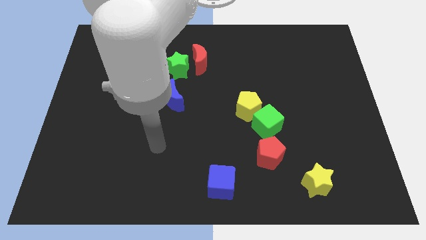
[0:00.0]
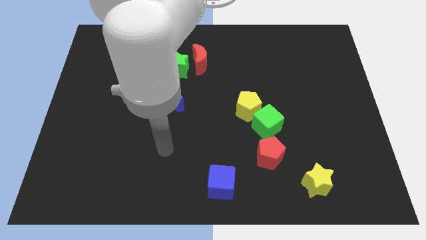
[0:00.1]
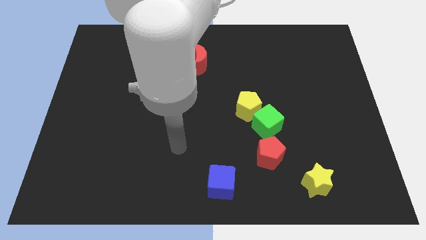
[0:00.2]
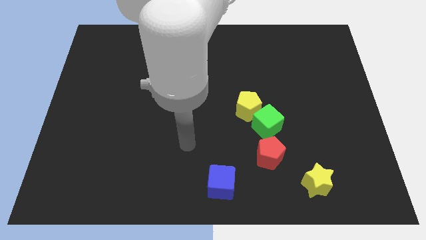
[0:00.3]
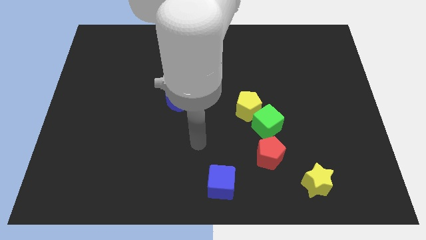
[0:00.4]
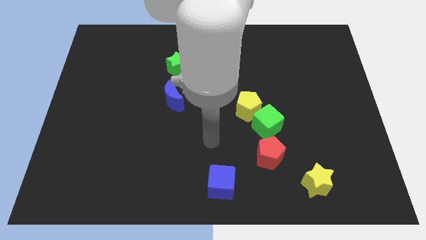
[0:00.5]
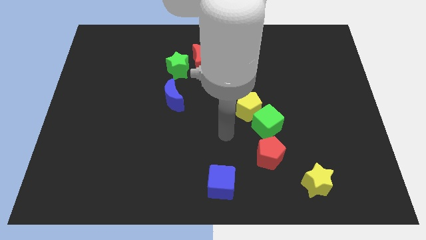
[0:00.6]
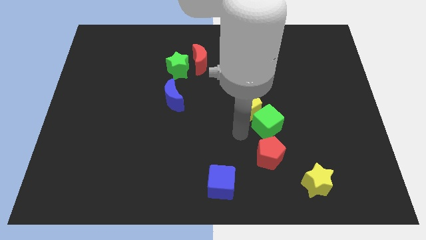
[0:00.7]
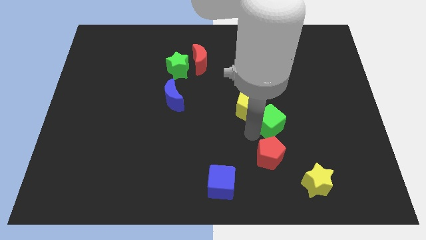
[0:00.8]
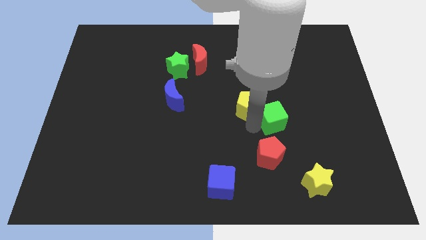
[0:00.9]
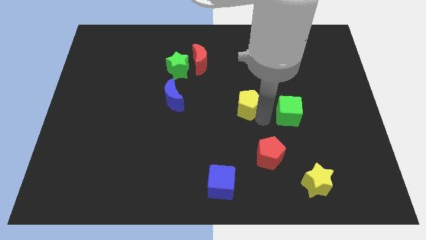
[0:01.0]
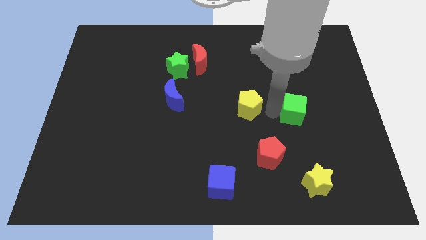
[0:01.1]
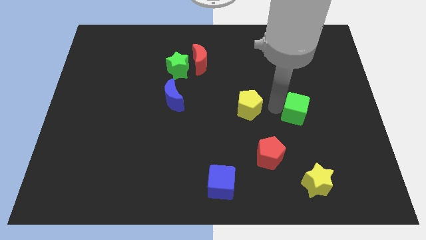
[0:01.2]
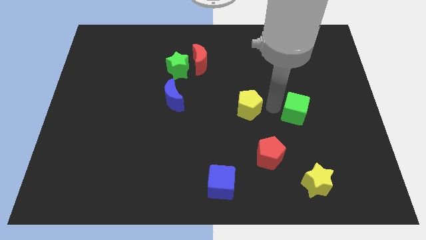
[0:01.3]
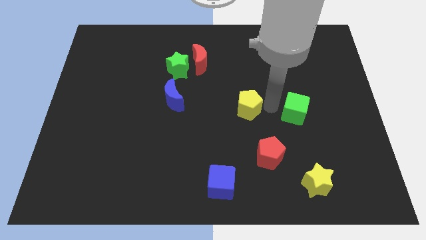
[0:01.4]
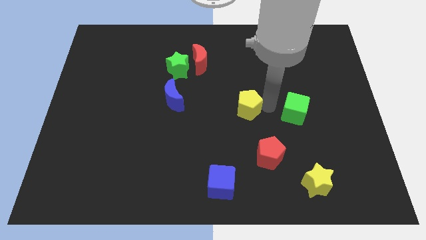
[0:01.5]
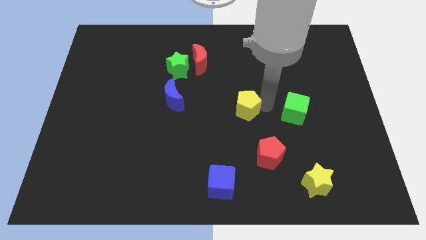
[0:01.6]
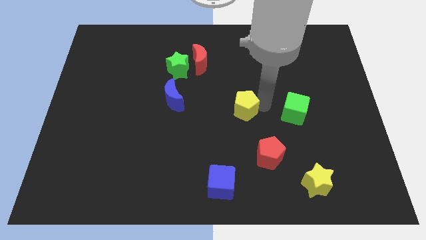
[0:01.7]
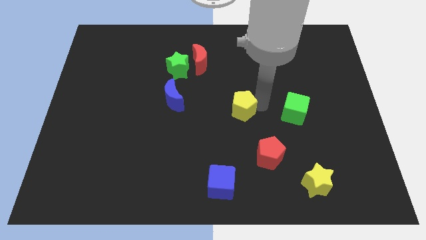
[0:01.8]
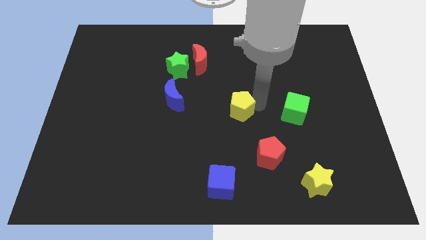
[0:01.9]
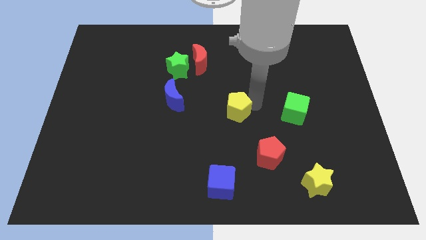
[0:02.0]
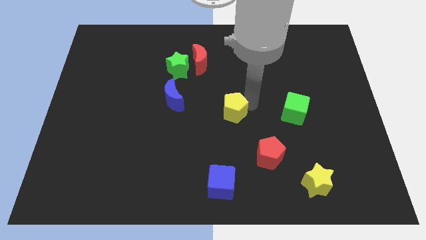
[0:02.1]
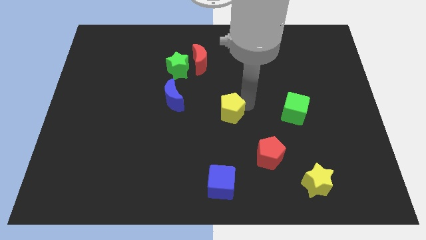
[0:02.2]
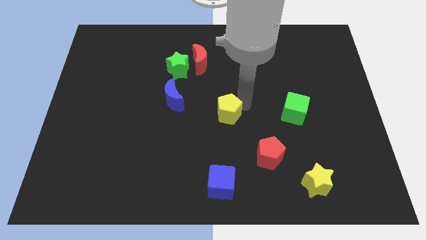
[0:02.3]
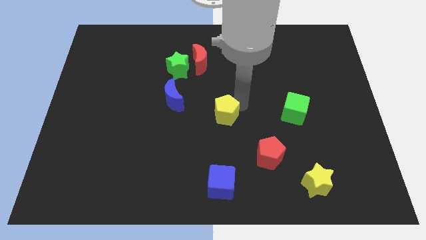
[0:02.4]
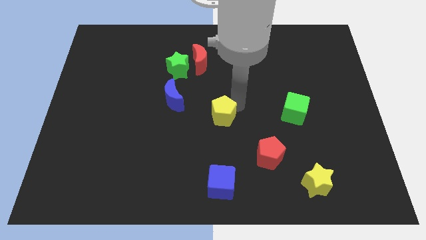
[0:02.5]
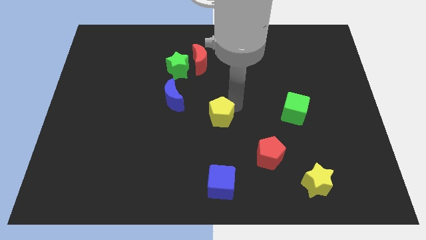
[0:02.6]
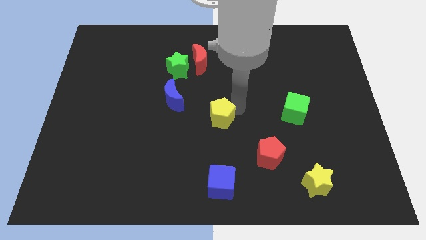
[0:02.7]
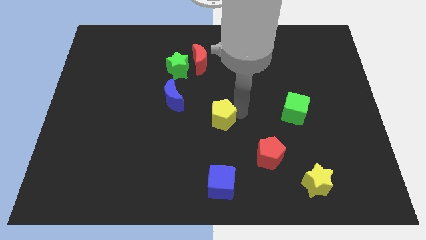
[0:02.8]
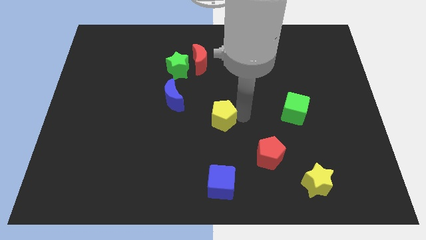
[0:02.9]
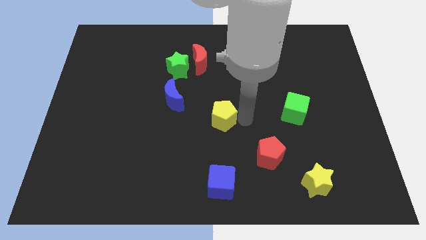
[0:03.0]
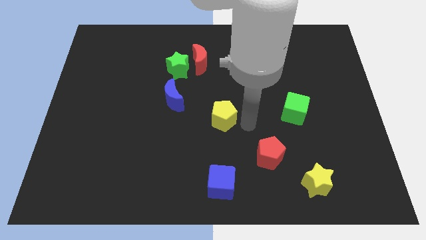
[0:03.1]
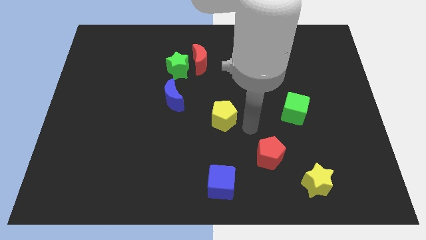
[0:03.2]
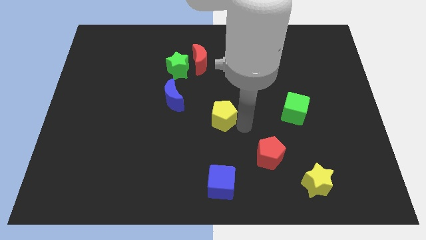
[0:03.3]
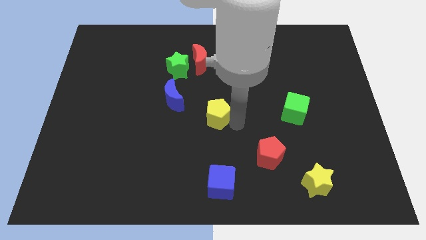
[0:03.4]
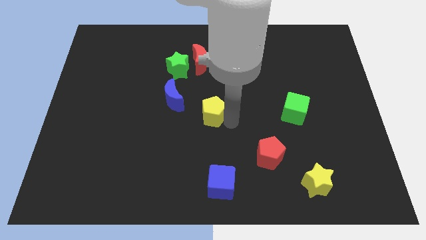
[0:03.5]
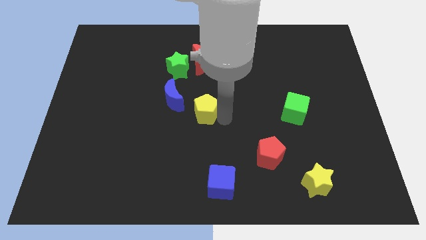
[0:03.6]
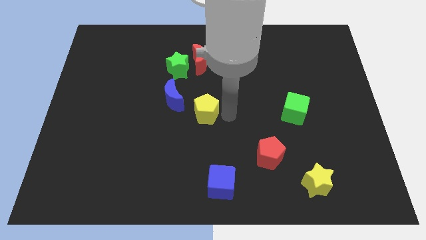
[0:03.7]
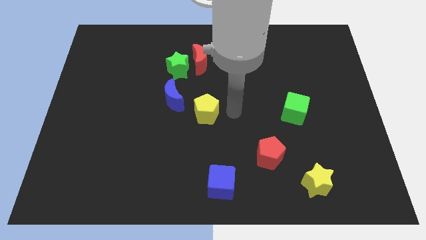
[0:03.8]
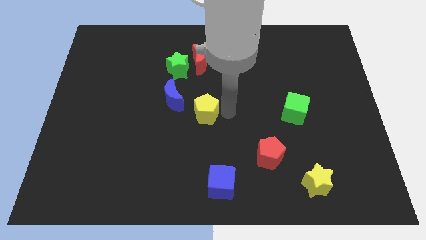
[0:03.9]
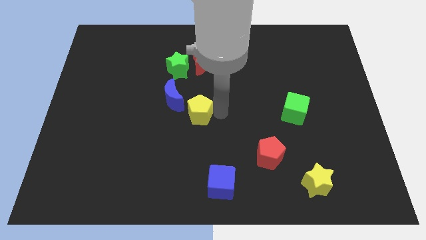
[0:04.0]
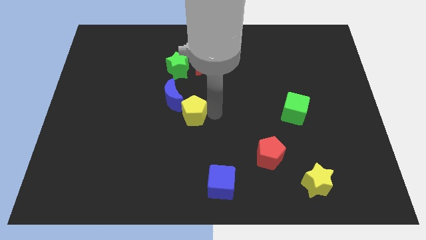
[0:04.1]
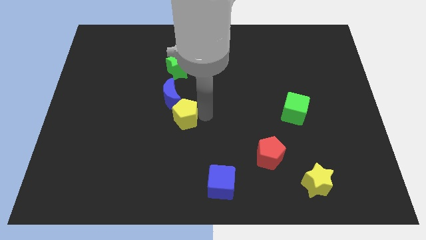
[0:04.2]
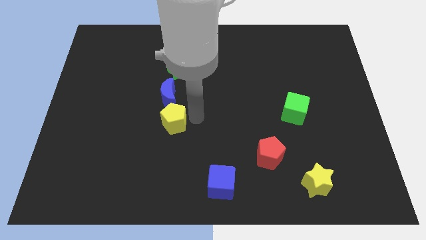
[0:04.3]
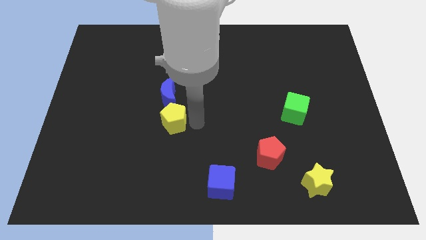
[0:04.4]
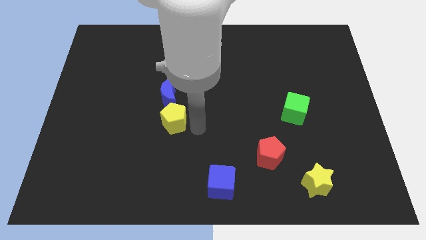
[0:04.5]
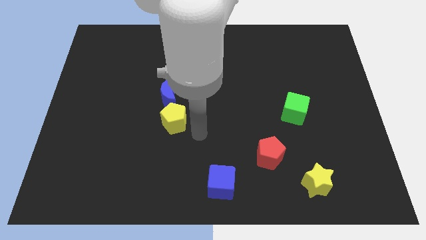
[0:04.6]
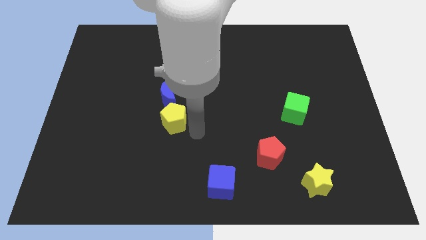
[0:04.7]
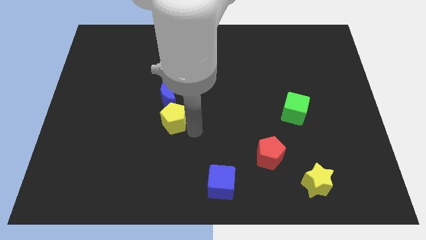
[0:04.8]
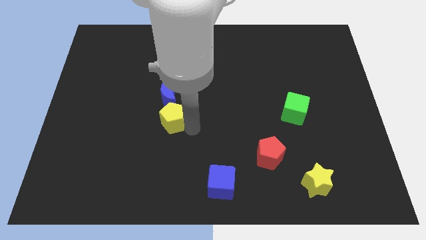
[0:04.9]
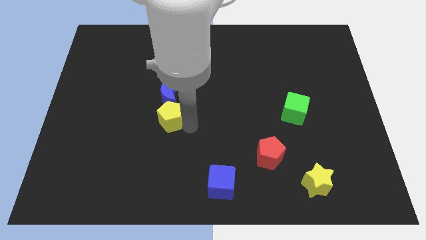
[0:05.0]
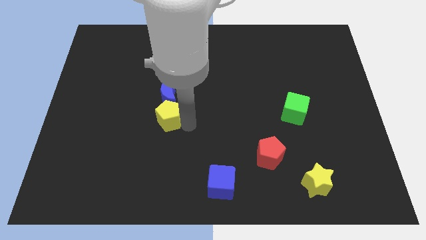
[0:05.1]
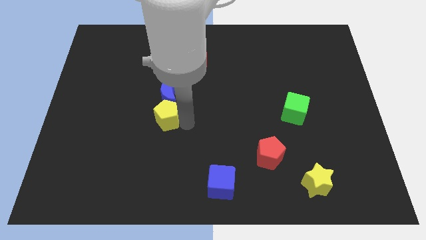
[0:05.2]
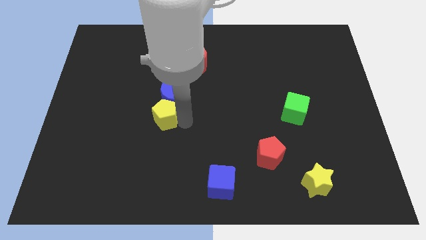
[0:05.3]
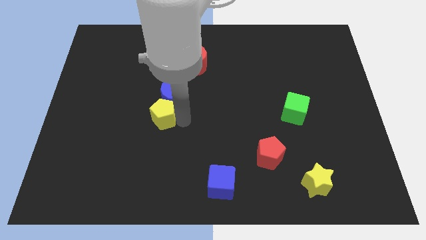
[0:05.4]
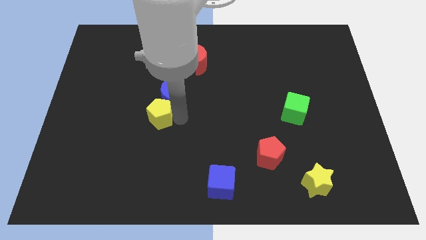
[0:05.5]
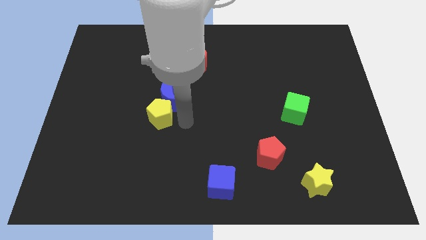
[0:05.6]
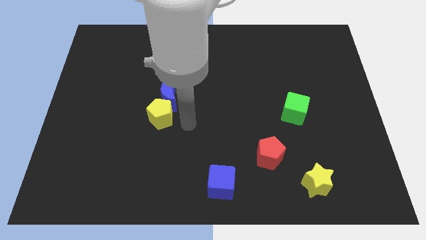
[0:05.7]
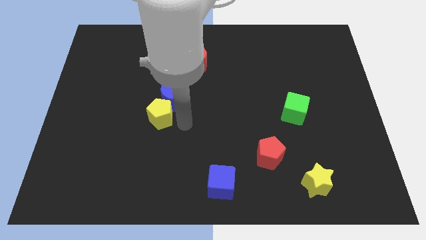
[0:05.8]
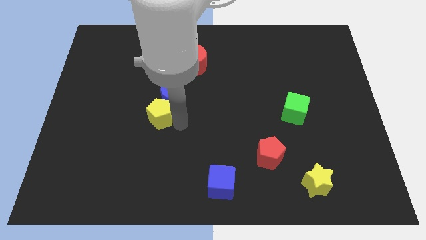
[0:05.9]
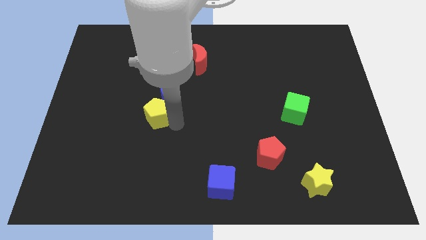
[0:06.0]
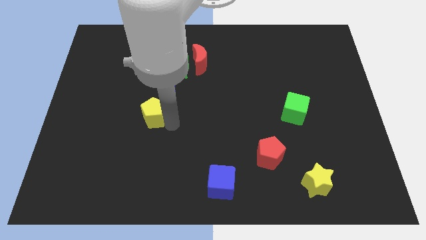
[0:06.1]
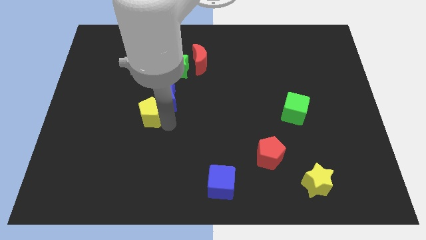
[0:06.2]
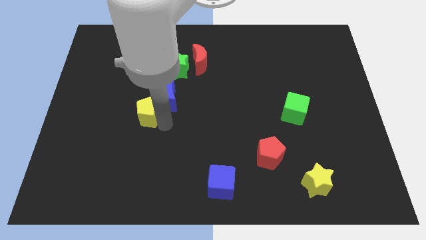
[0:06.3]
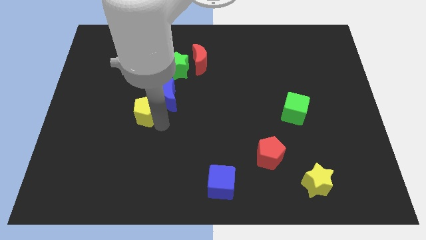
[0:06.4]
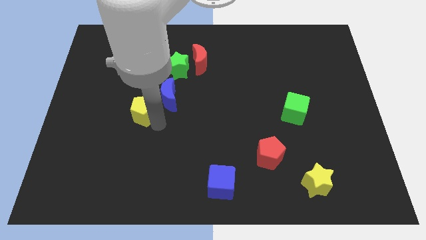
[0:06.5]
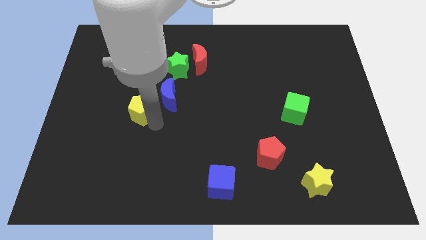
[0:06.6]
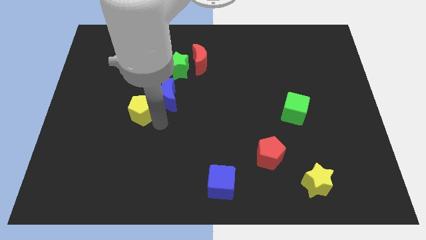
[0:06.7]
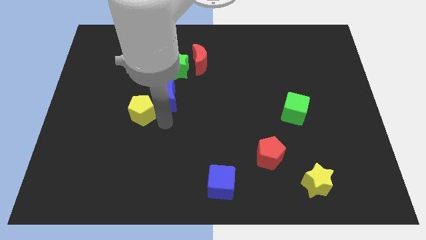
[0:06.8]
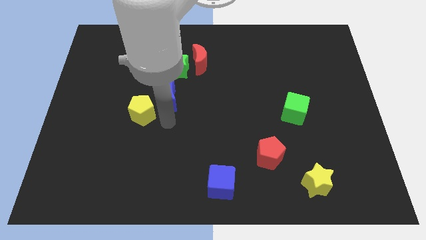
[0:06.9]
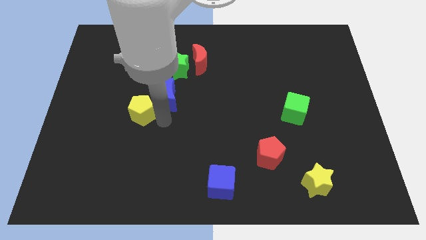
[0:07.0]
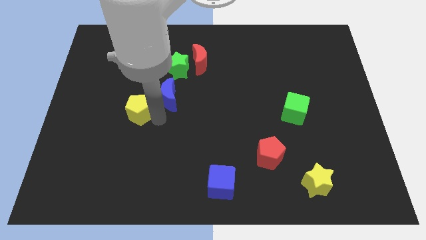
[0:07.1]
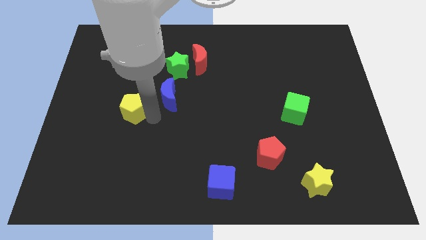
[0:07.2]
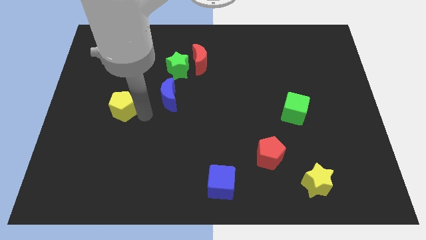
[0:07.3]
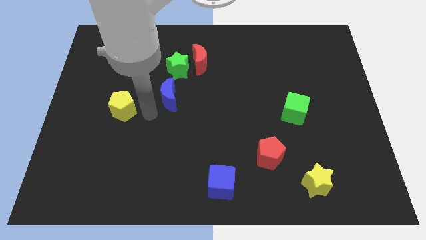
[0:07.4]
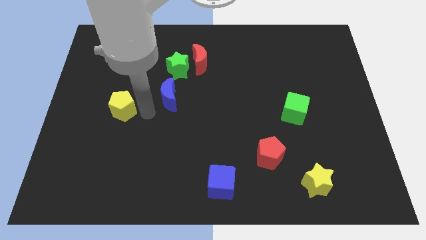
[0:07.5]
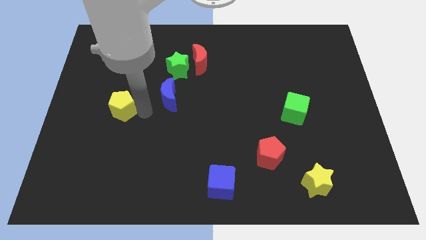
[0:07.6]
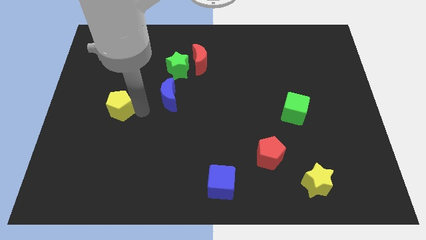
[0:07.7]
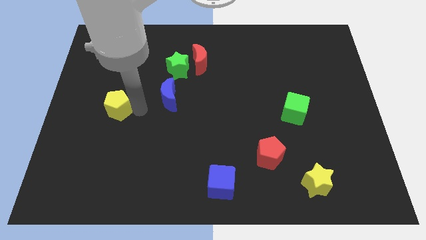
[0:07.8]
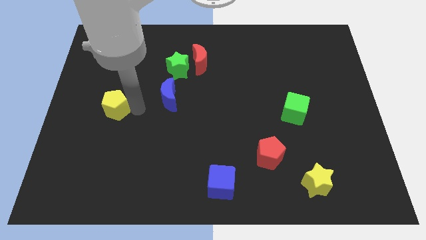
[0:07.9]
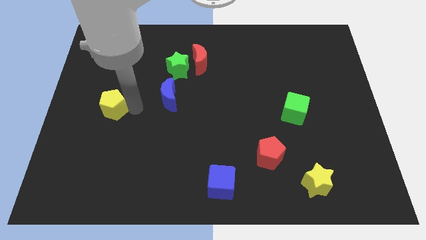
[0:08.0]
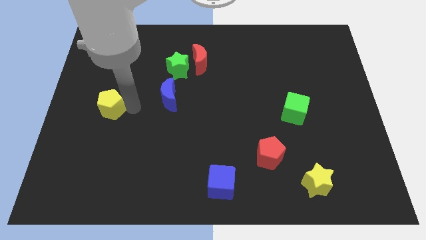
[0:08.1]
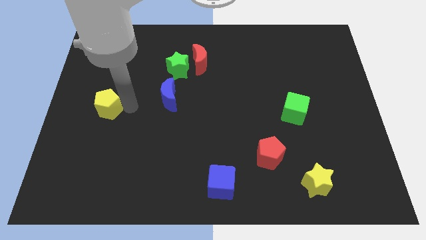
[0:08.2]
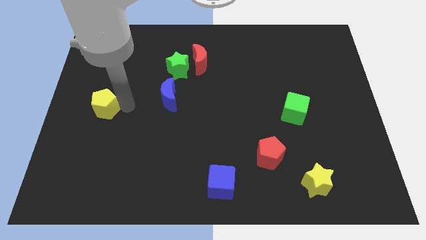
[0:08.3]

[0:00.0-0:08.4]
push the yellow pentagon to the left side of the board
